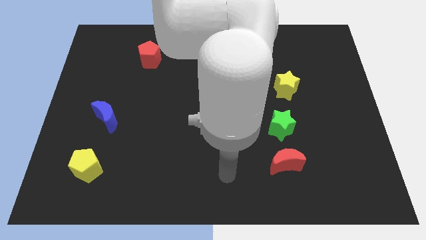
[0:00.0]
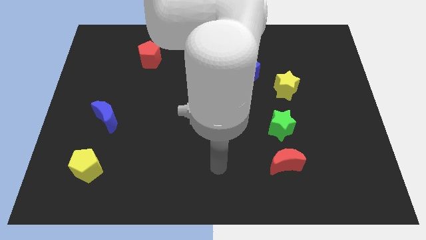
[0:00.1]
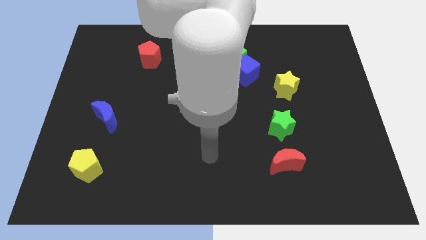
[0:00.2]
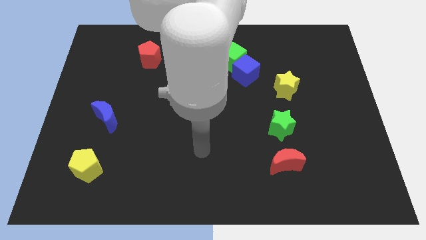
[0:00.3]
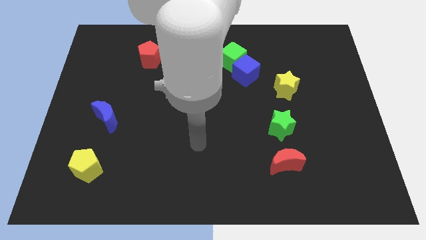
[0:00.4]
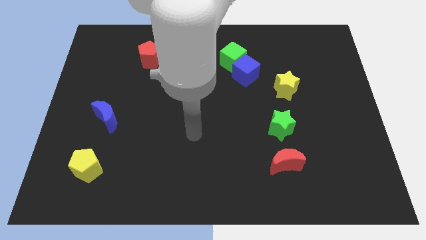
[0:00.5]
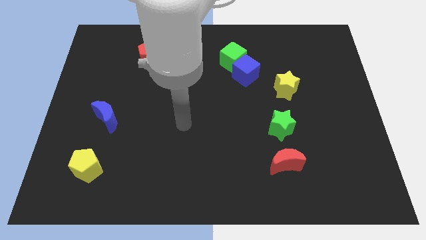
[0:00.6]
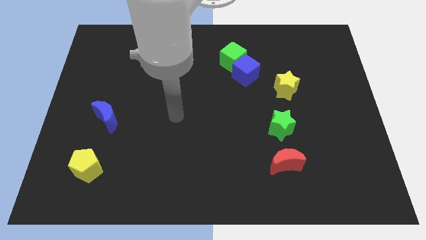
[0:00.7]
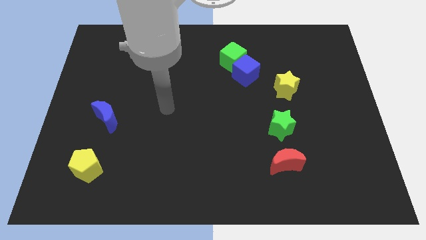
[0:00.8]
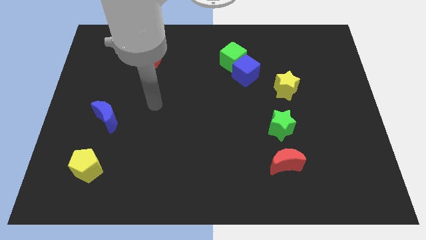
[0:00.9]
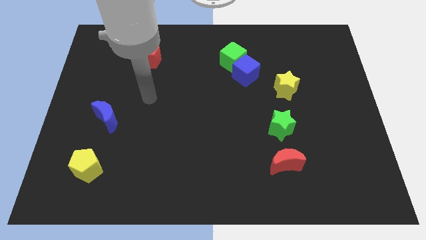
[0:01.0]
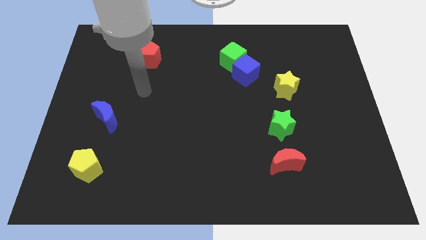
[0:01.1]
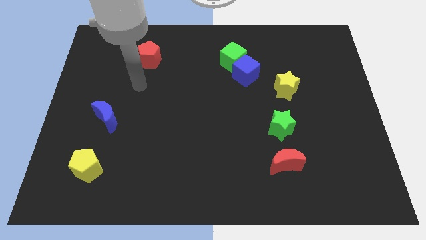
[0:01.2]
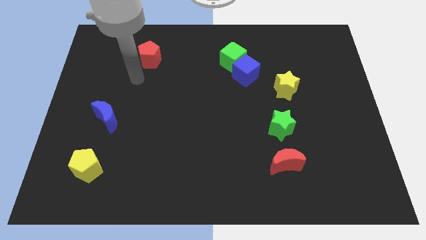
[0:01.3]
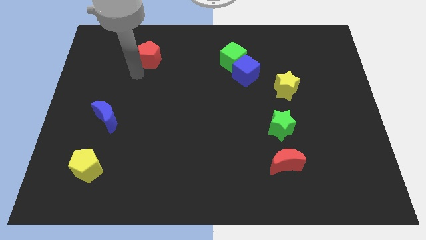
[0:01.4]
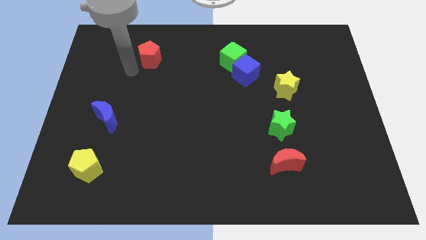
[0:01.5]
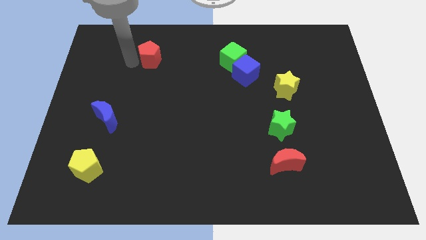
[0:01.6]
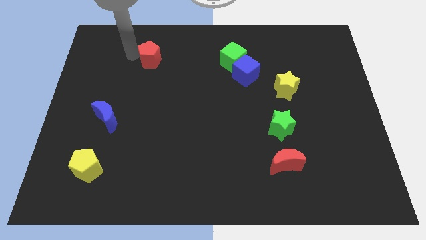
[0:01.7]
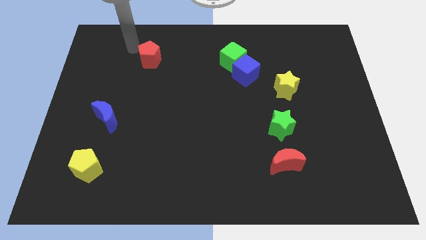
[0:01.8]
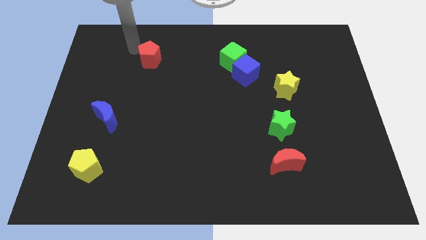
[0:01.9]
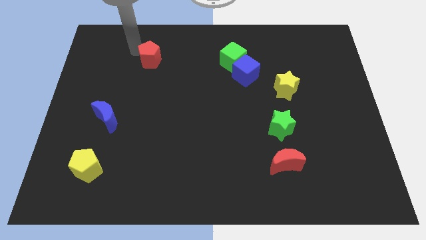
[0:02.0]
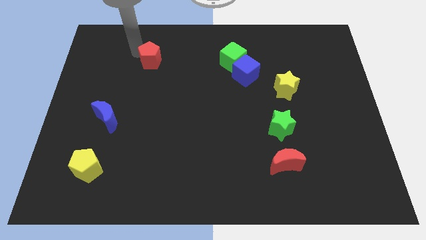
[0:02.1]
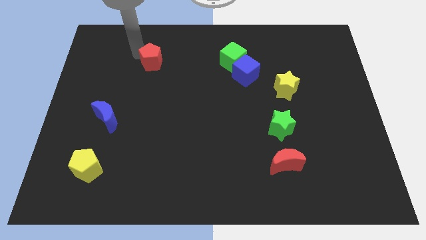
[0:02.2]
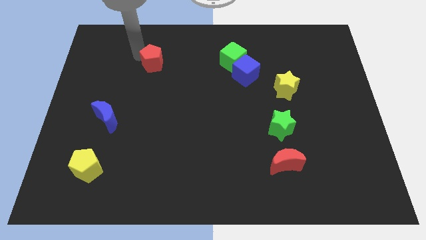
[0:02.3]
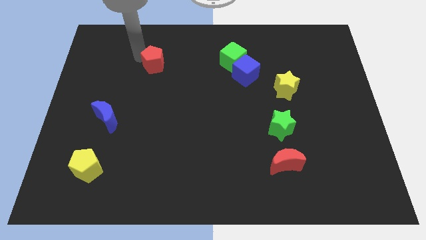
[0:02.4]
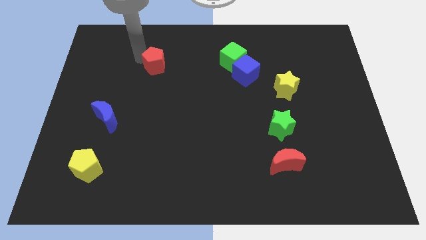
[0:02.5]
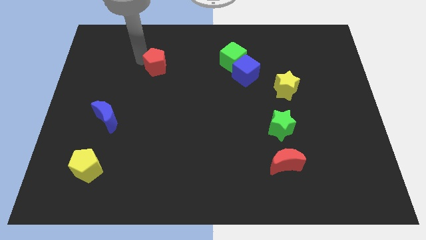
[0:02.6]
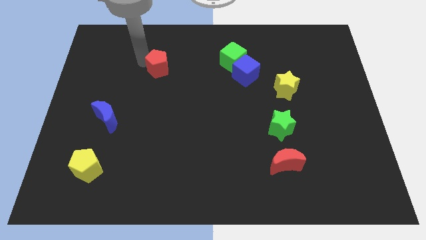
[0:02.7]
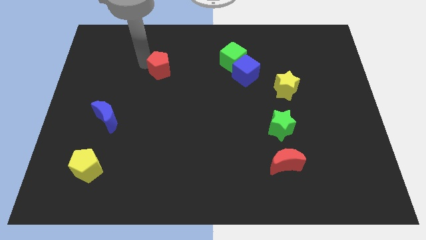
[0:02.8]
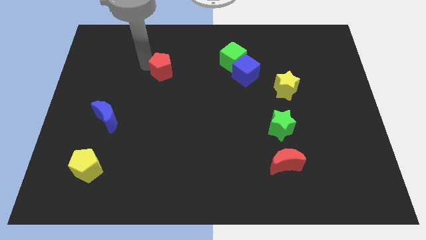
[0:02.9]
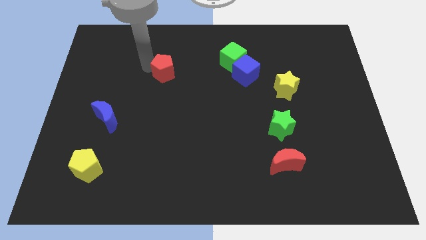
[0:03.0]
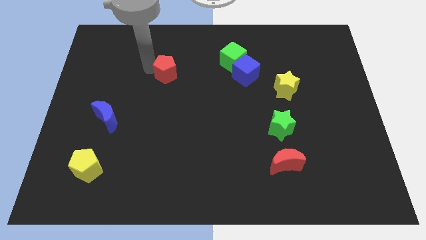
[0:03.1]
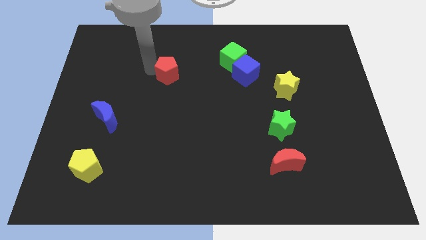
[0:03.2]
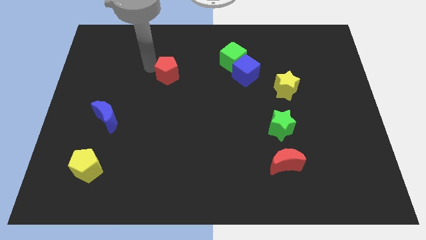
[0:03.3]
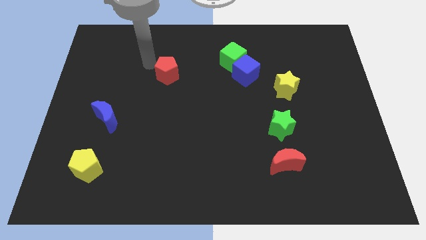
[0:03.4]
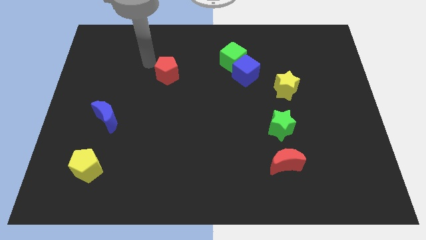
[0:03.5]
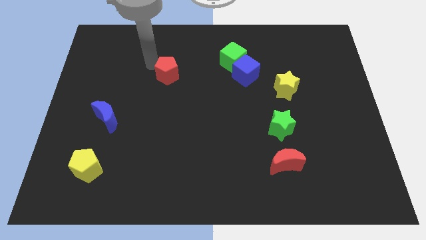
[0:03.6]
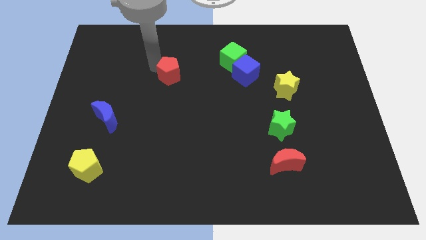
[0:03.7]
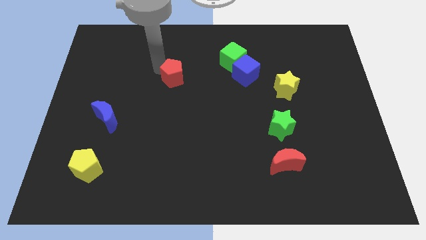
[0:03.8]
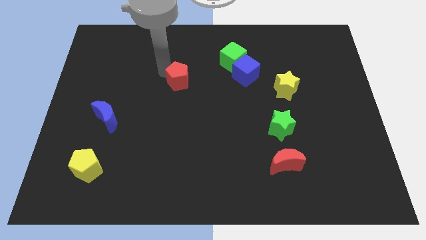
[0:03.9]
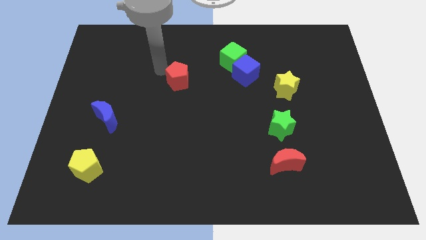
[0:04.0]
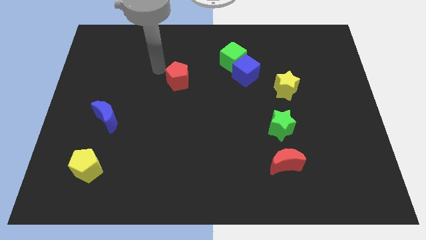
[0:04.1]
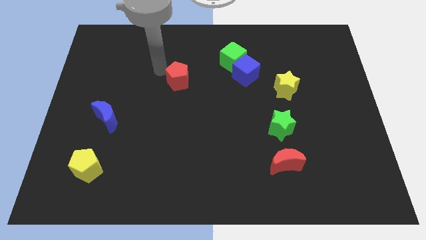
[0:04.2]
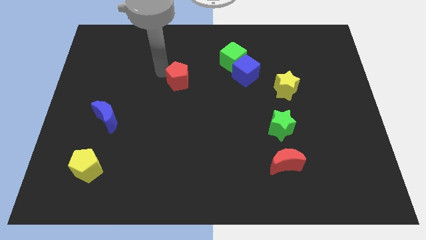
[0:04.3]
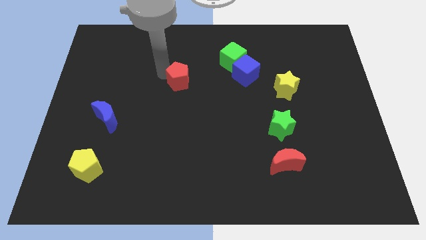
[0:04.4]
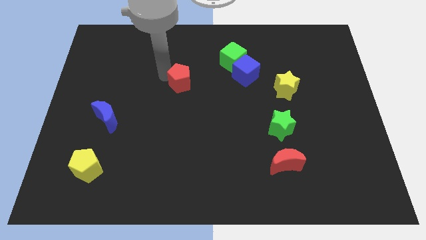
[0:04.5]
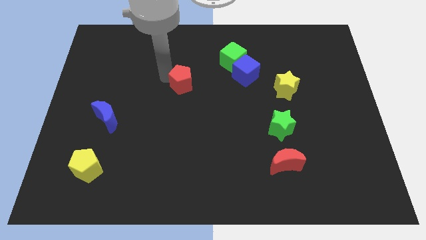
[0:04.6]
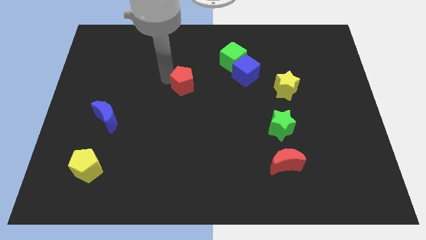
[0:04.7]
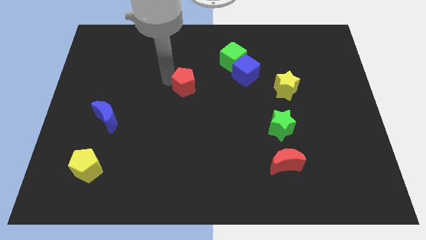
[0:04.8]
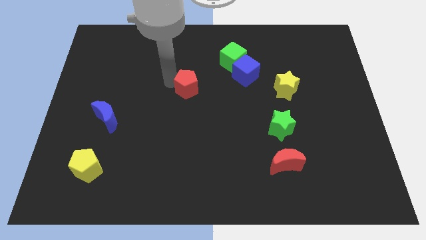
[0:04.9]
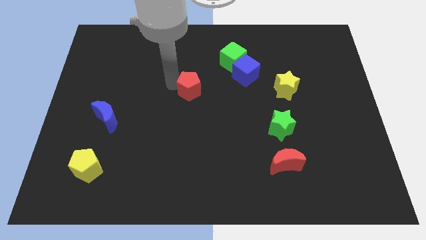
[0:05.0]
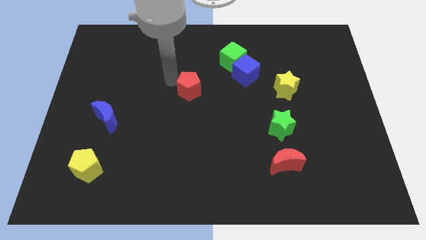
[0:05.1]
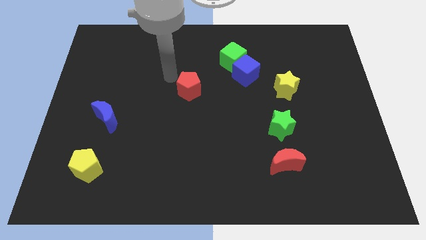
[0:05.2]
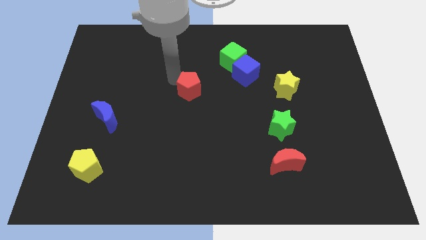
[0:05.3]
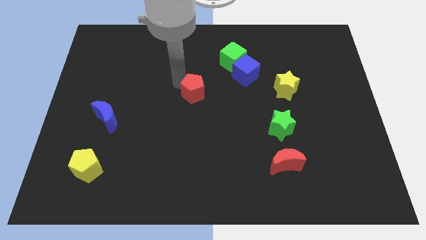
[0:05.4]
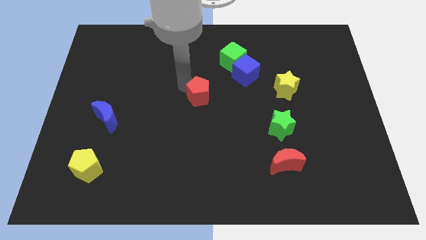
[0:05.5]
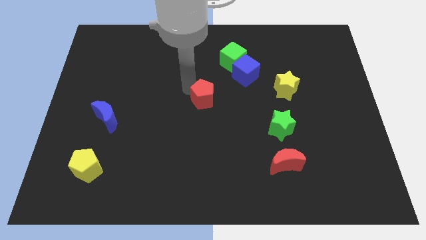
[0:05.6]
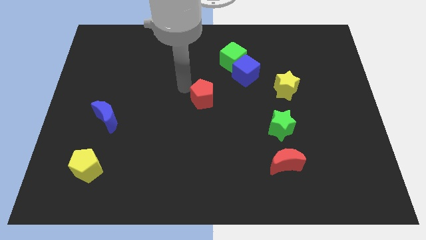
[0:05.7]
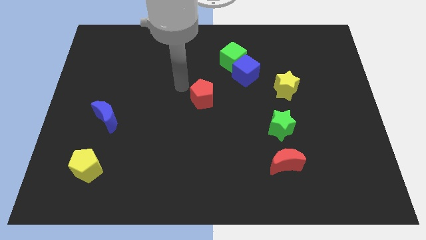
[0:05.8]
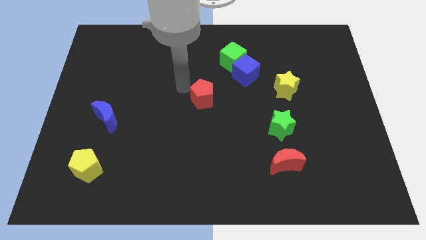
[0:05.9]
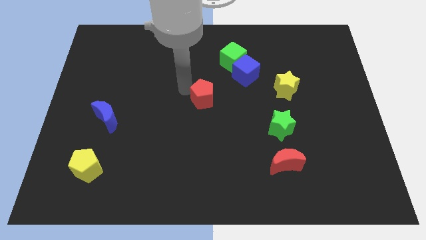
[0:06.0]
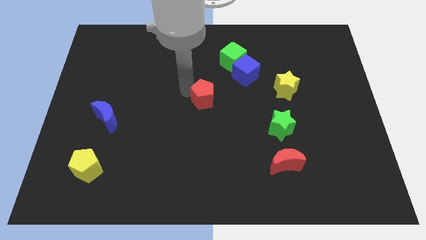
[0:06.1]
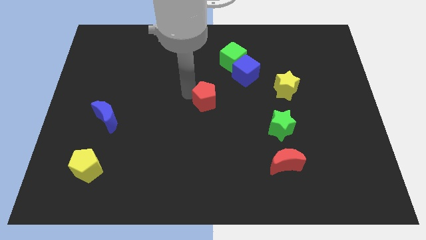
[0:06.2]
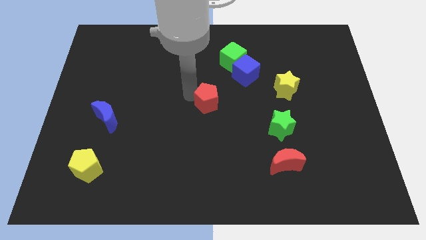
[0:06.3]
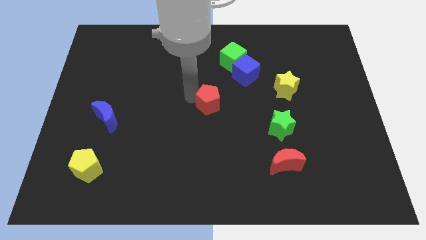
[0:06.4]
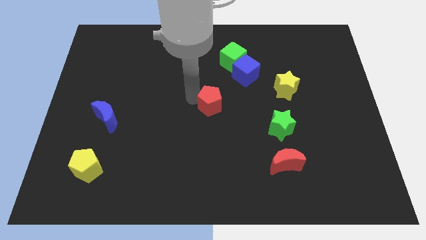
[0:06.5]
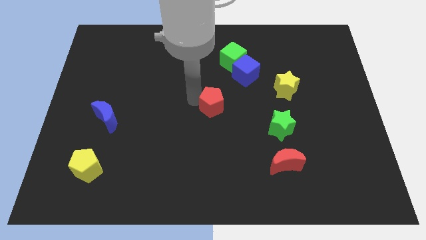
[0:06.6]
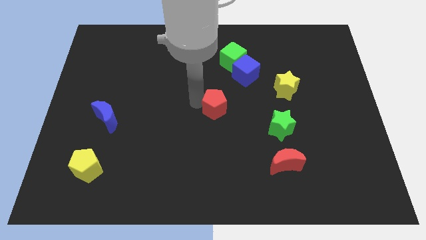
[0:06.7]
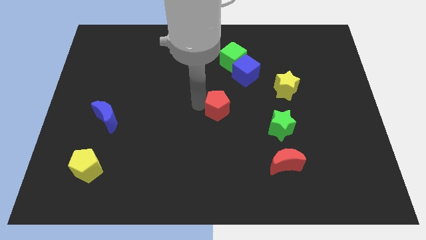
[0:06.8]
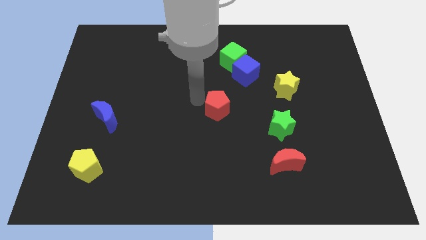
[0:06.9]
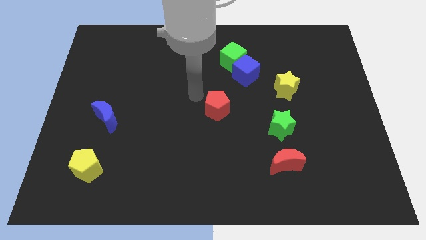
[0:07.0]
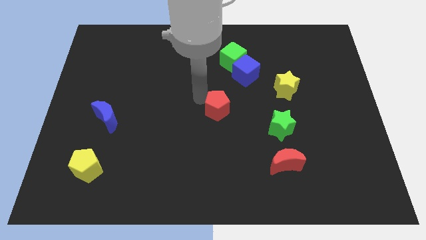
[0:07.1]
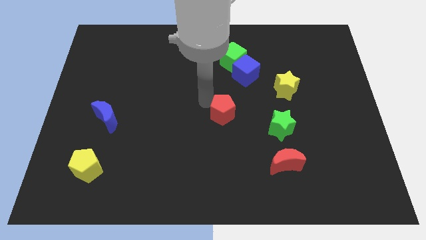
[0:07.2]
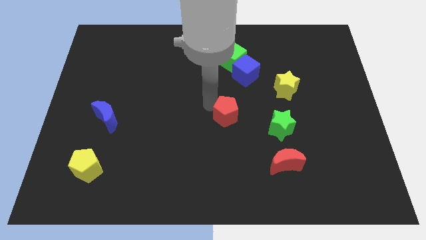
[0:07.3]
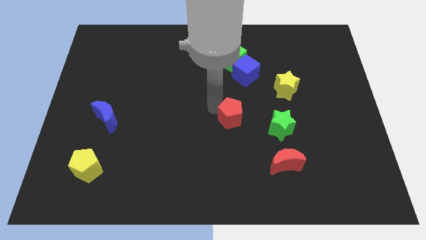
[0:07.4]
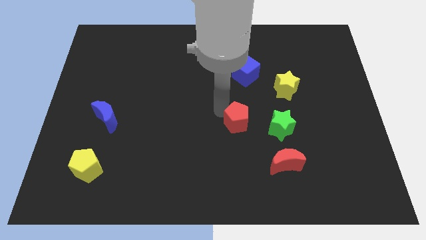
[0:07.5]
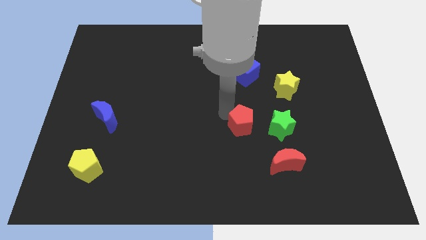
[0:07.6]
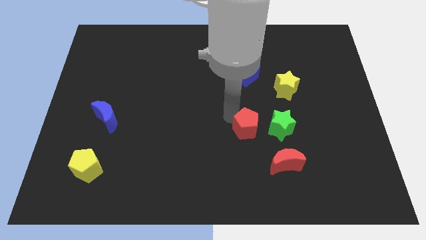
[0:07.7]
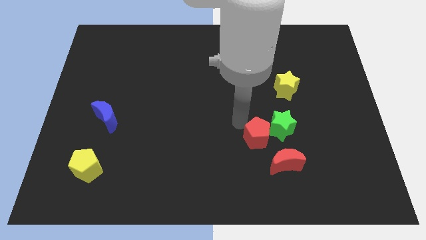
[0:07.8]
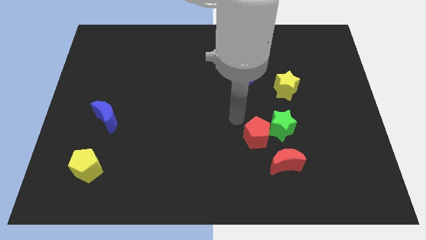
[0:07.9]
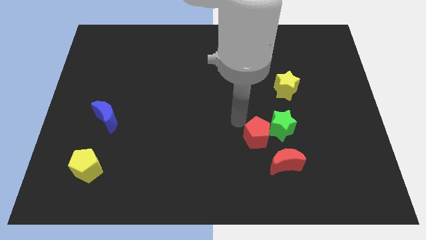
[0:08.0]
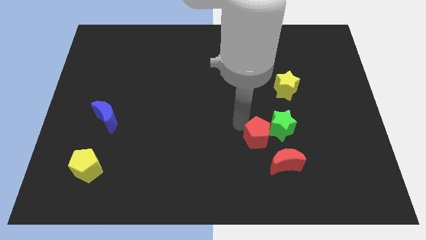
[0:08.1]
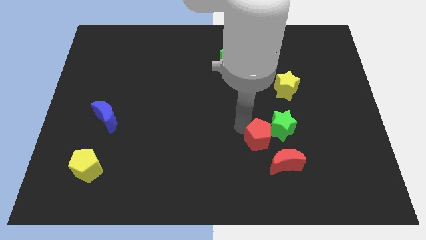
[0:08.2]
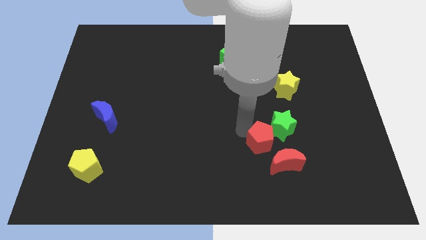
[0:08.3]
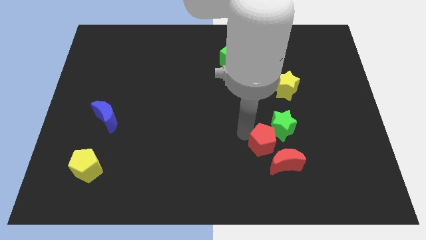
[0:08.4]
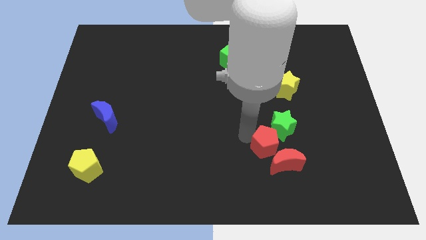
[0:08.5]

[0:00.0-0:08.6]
move the red pentagon close to the red moon
